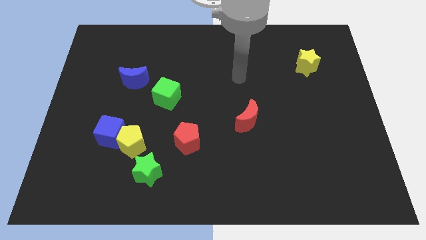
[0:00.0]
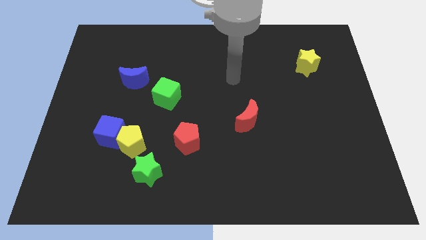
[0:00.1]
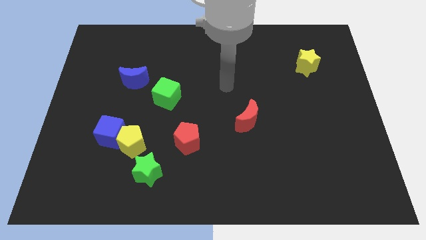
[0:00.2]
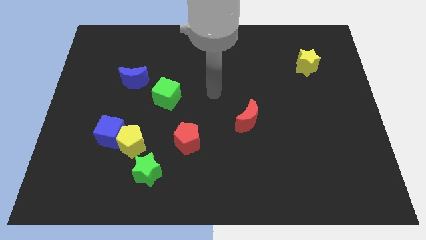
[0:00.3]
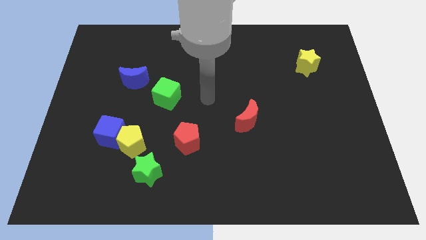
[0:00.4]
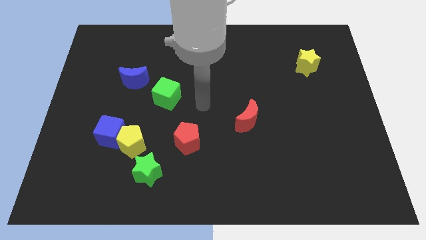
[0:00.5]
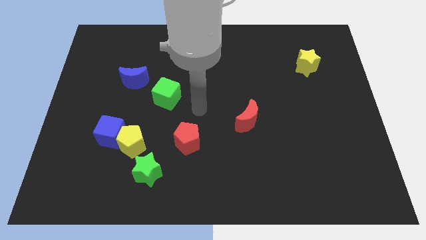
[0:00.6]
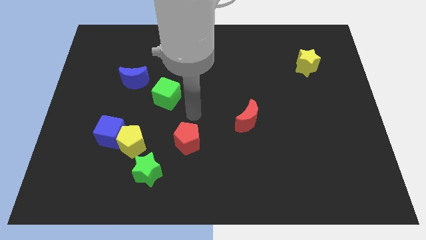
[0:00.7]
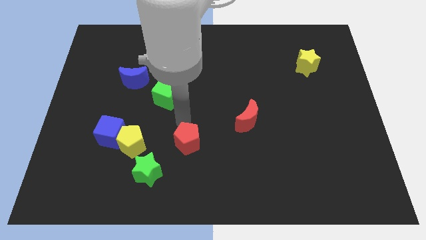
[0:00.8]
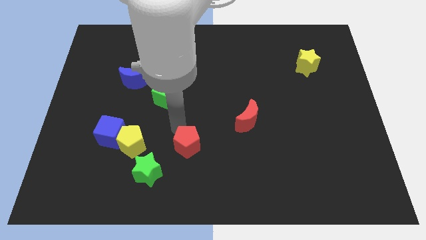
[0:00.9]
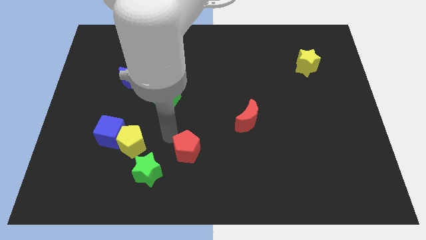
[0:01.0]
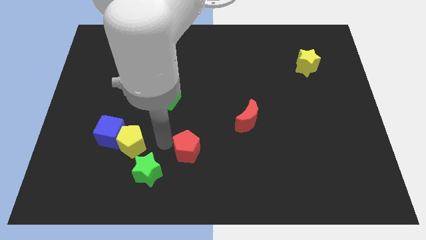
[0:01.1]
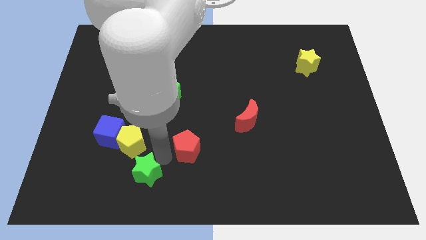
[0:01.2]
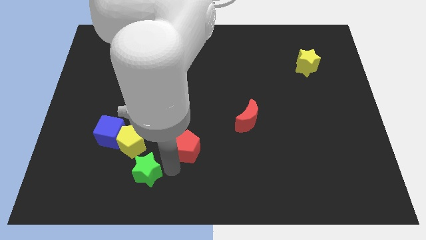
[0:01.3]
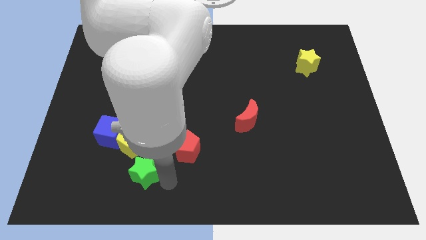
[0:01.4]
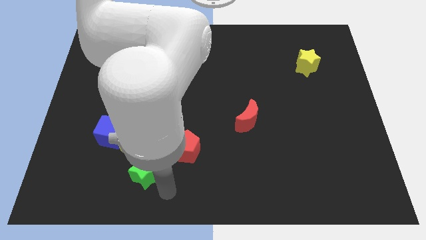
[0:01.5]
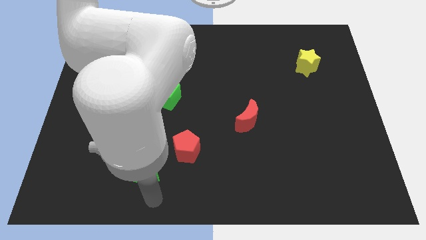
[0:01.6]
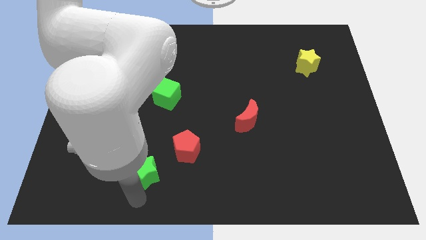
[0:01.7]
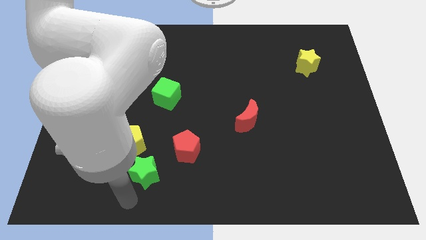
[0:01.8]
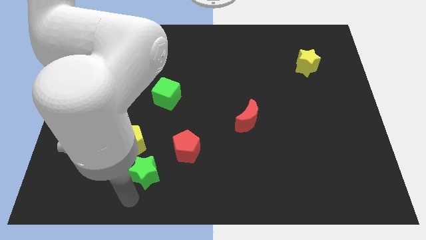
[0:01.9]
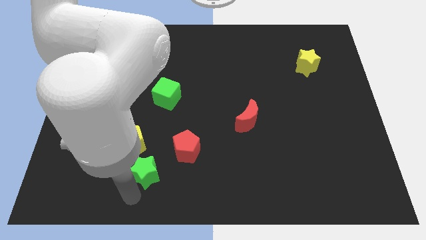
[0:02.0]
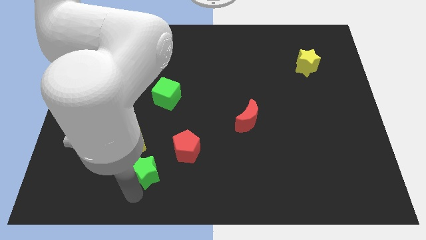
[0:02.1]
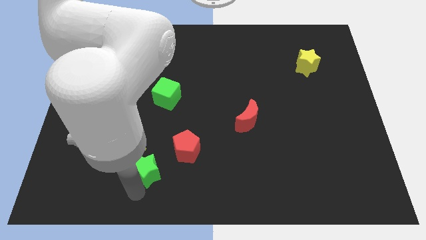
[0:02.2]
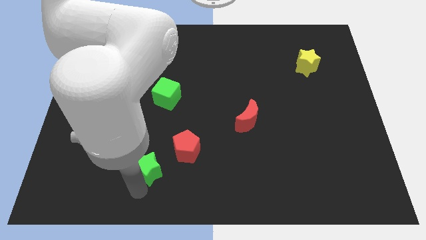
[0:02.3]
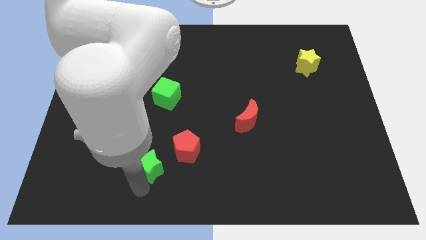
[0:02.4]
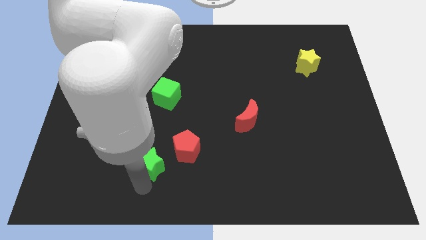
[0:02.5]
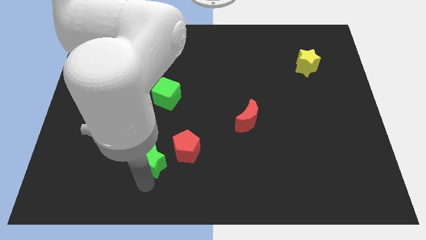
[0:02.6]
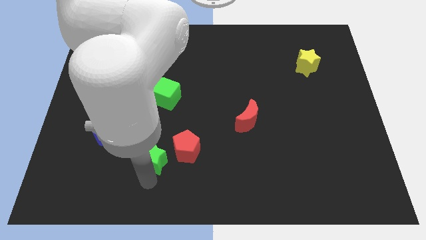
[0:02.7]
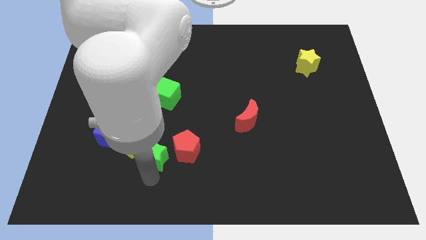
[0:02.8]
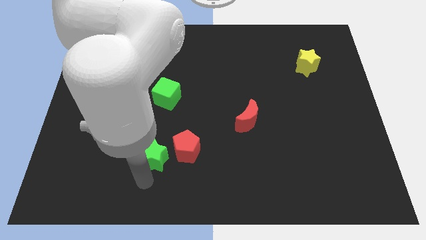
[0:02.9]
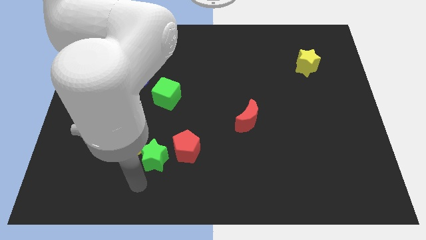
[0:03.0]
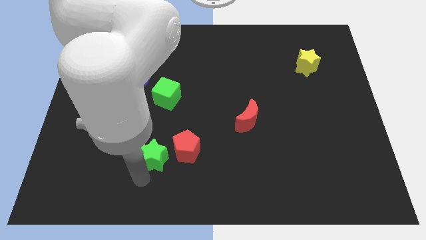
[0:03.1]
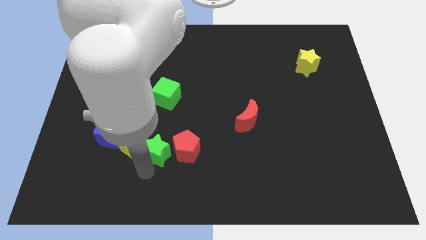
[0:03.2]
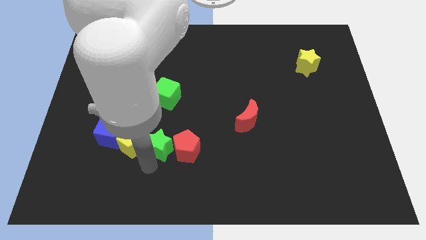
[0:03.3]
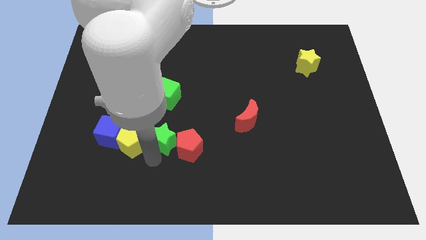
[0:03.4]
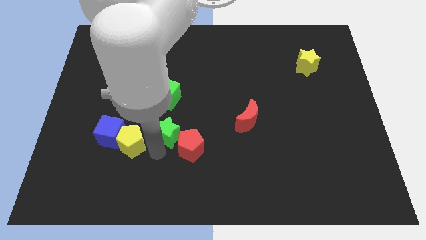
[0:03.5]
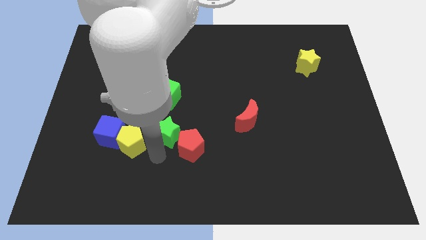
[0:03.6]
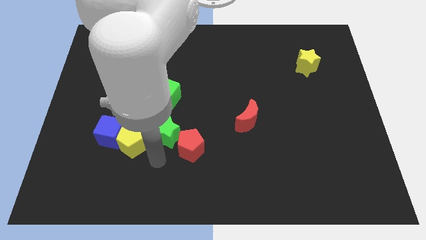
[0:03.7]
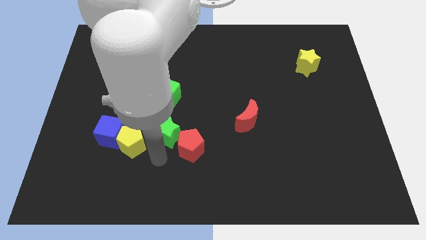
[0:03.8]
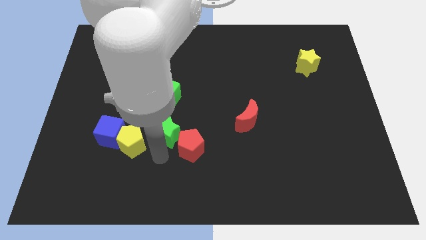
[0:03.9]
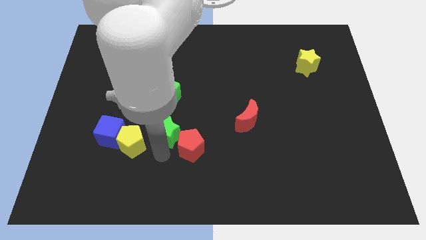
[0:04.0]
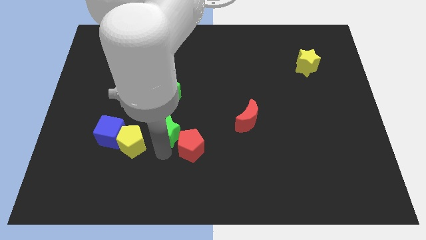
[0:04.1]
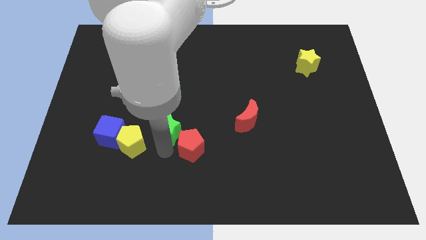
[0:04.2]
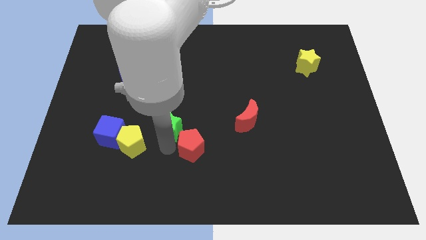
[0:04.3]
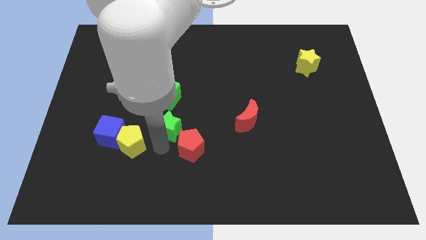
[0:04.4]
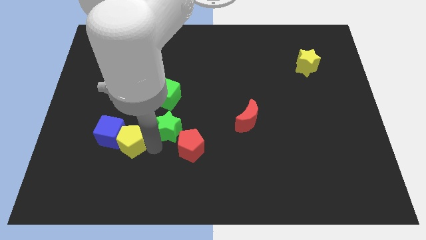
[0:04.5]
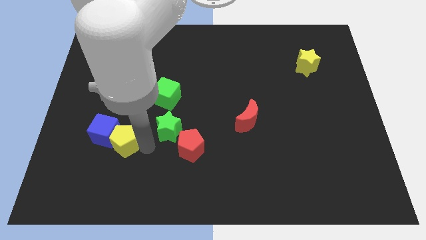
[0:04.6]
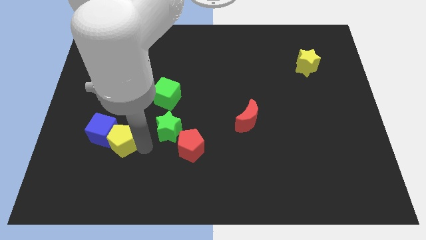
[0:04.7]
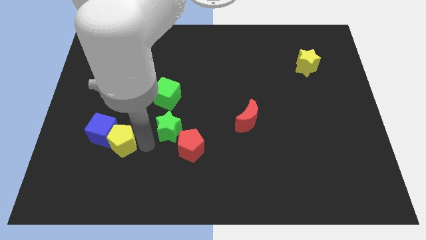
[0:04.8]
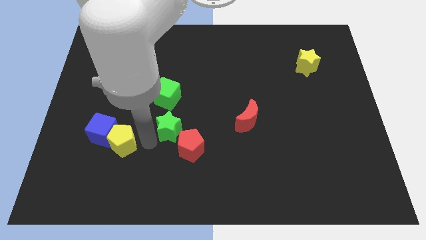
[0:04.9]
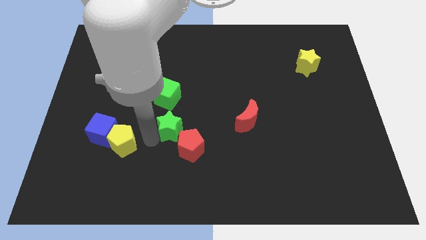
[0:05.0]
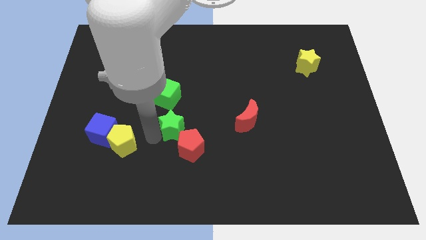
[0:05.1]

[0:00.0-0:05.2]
slide the green star to the center of the board

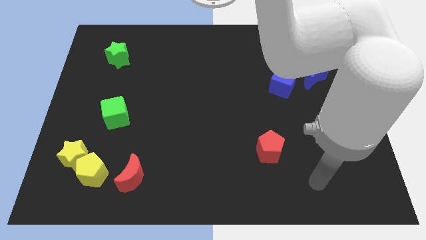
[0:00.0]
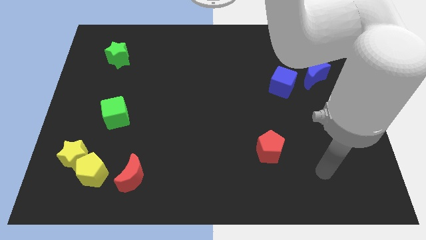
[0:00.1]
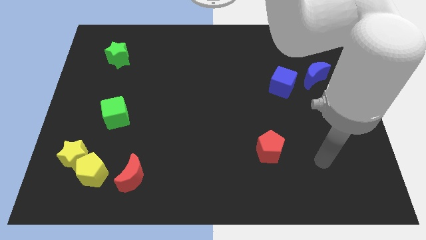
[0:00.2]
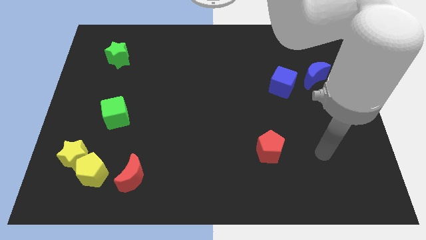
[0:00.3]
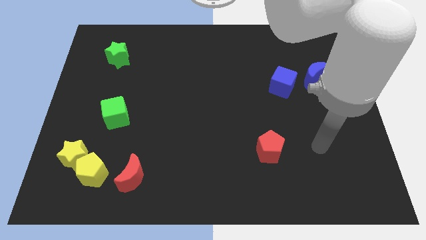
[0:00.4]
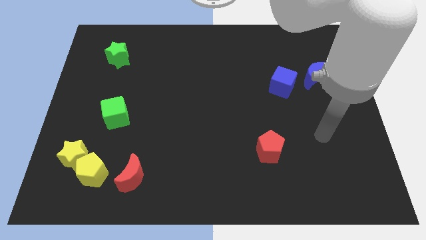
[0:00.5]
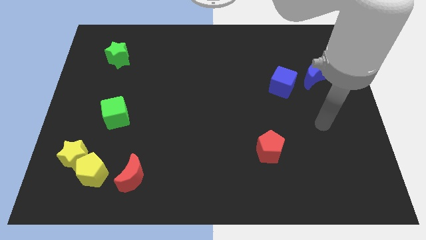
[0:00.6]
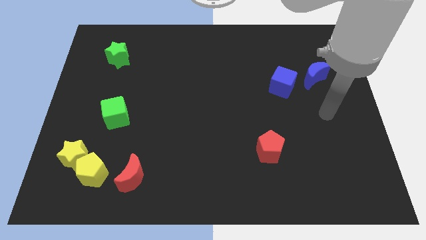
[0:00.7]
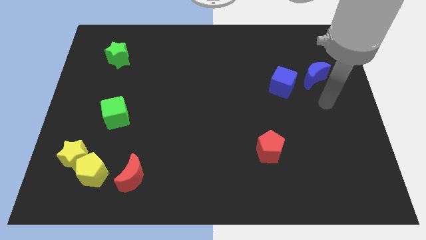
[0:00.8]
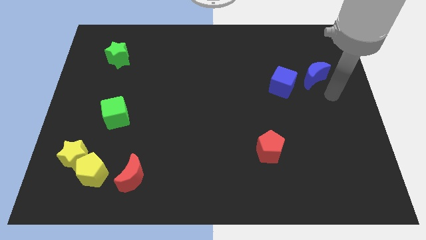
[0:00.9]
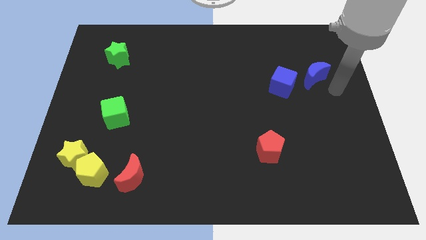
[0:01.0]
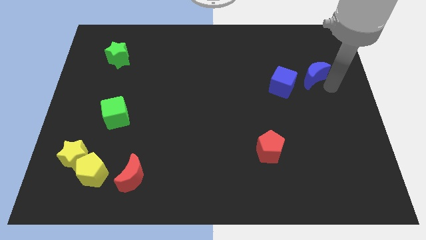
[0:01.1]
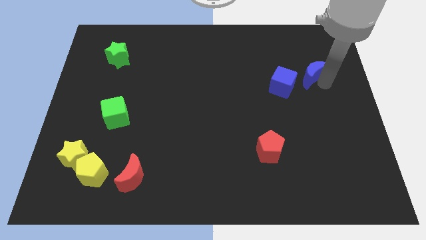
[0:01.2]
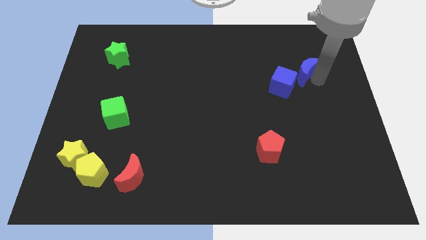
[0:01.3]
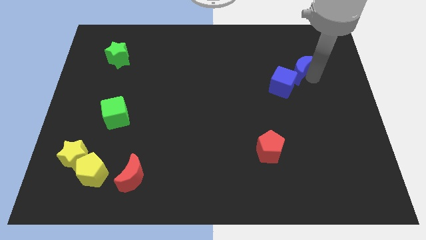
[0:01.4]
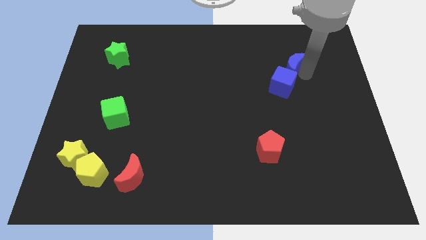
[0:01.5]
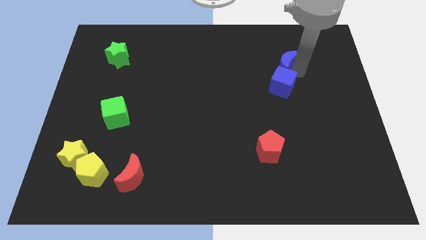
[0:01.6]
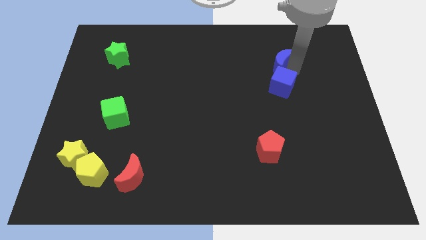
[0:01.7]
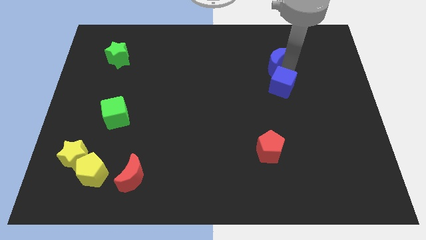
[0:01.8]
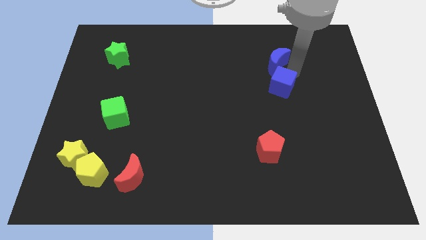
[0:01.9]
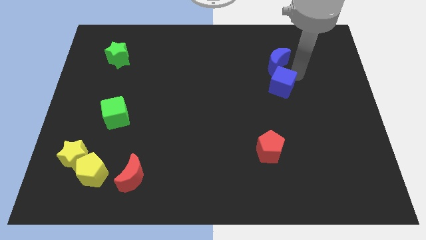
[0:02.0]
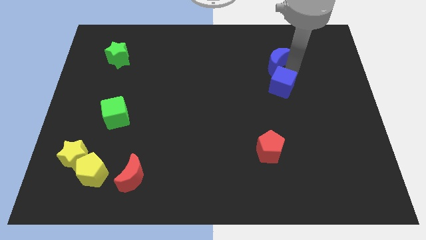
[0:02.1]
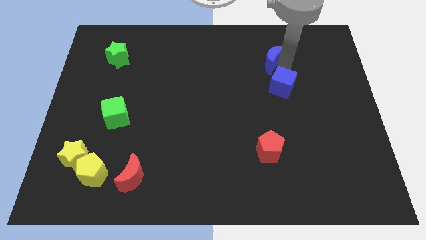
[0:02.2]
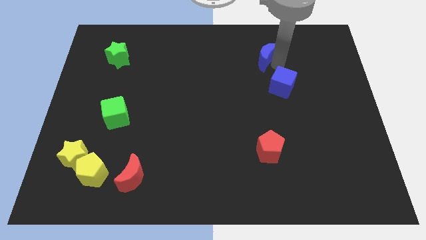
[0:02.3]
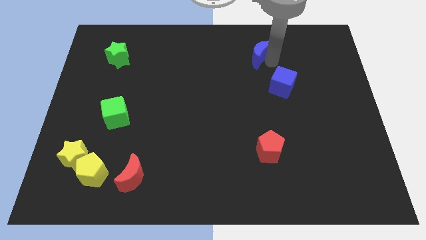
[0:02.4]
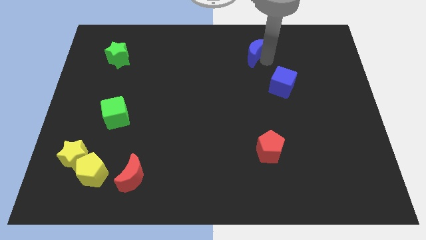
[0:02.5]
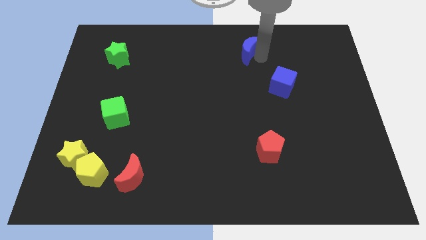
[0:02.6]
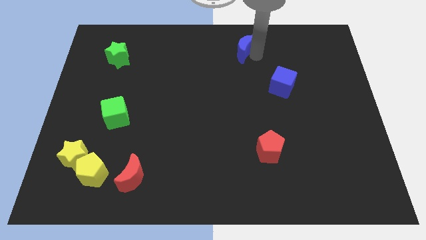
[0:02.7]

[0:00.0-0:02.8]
put the blue moon to the top side
